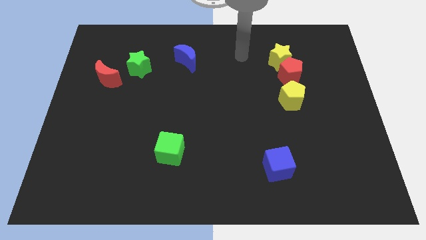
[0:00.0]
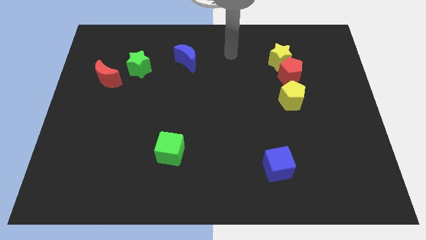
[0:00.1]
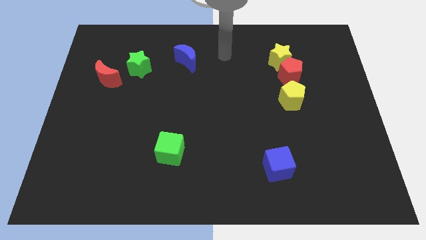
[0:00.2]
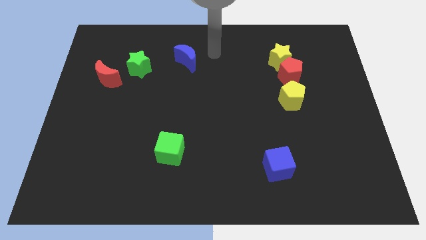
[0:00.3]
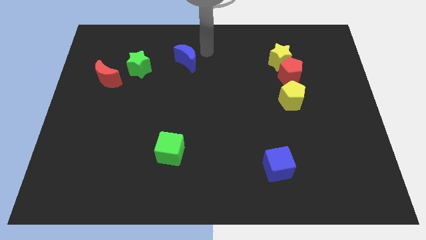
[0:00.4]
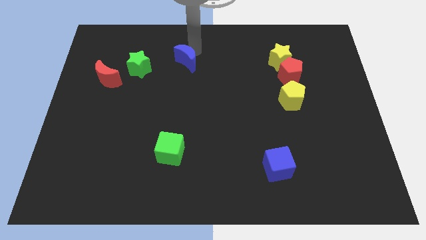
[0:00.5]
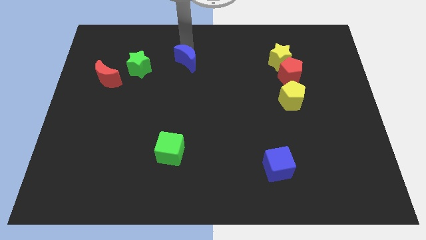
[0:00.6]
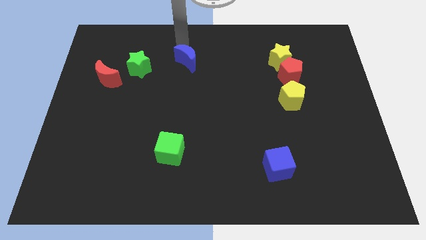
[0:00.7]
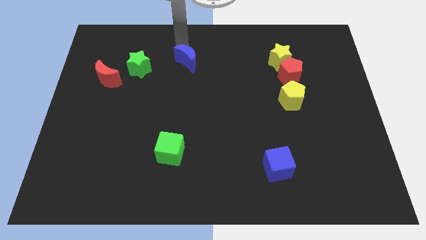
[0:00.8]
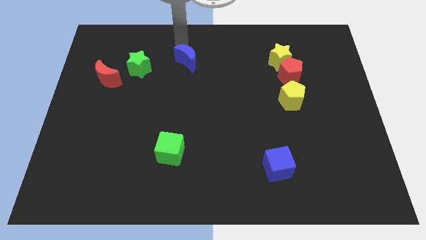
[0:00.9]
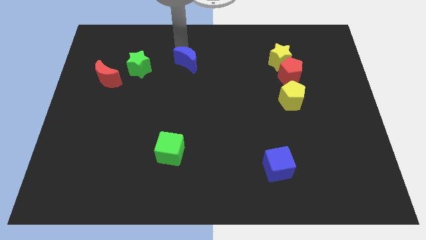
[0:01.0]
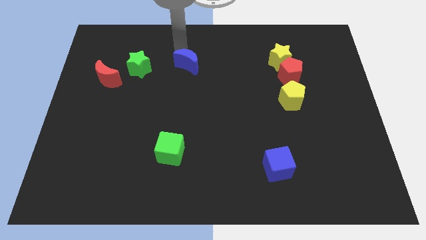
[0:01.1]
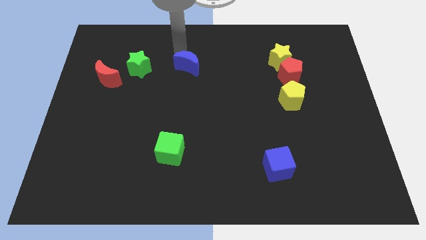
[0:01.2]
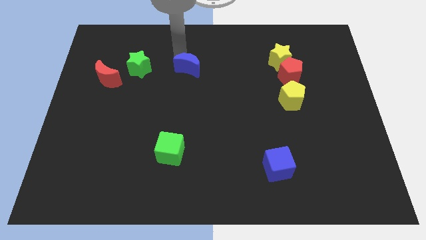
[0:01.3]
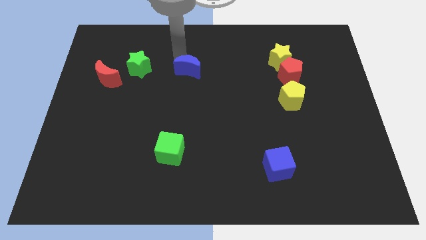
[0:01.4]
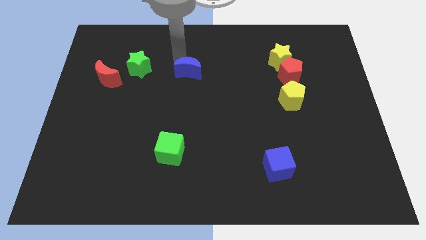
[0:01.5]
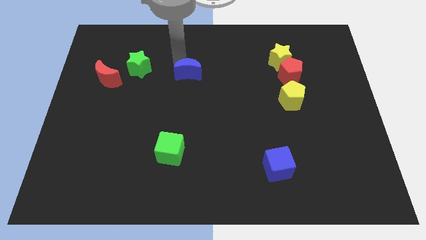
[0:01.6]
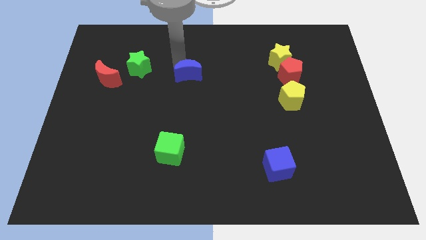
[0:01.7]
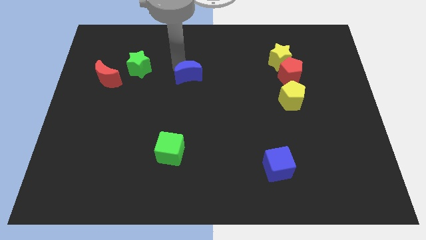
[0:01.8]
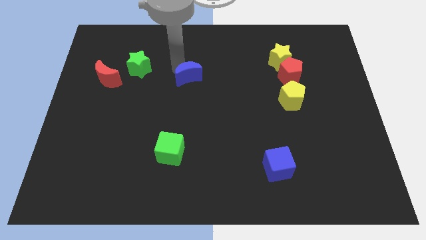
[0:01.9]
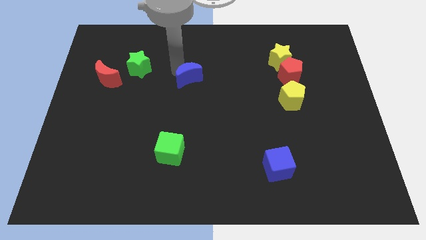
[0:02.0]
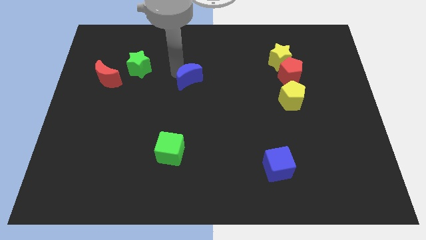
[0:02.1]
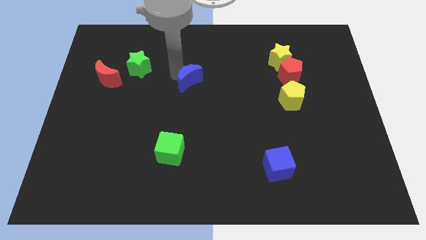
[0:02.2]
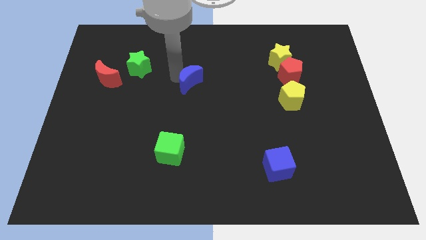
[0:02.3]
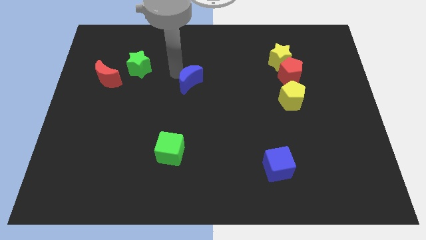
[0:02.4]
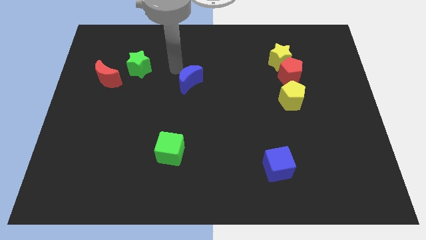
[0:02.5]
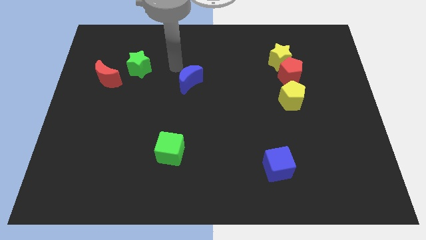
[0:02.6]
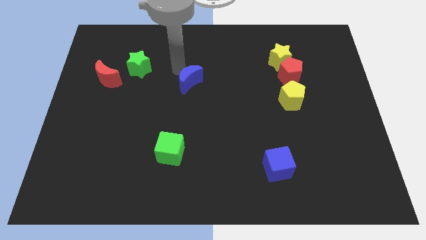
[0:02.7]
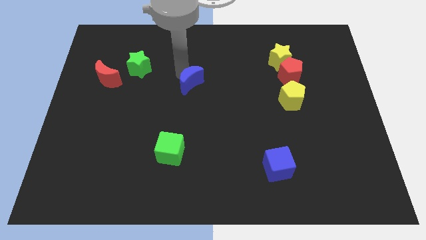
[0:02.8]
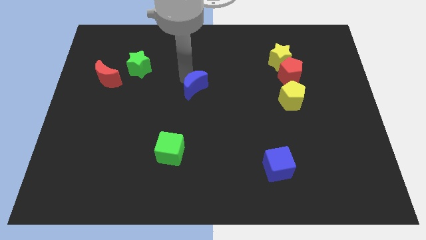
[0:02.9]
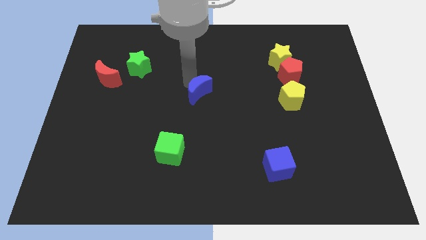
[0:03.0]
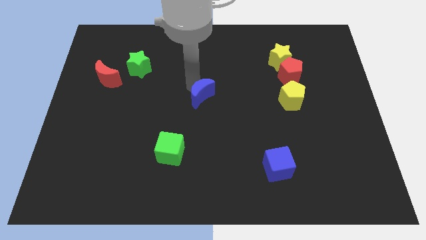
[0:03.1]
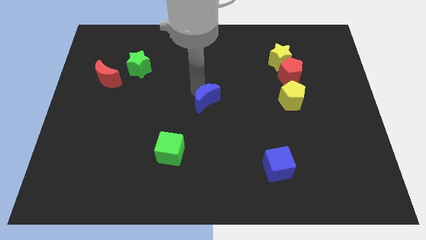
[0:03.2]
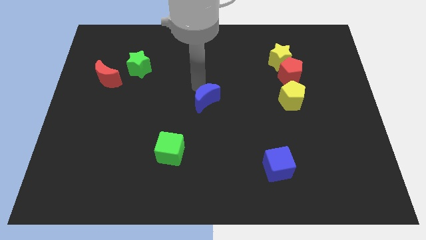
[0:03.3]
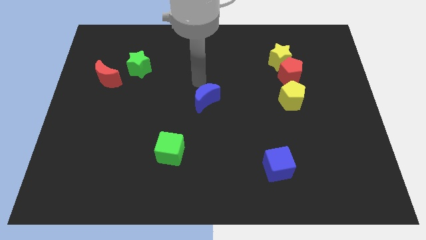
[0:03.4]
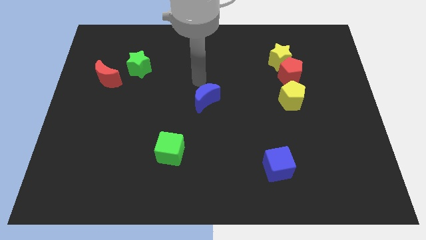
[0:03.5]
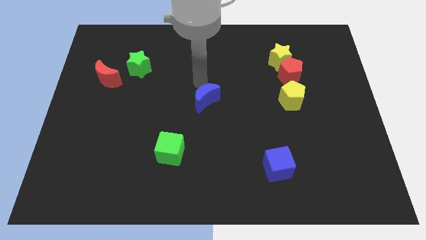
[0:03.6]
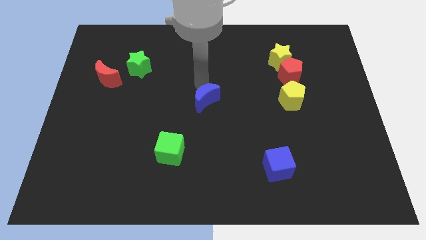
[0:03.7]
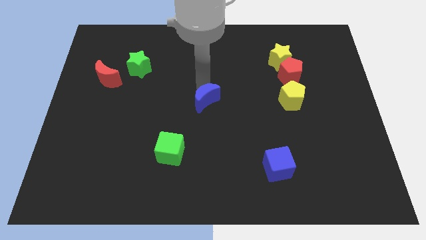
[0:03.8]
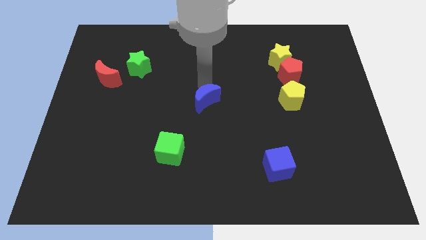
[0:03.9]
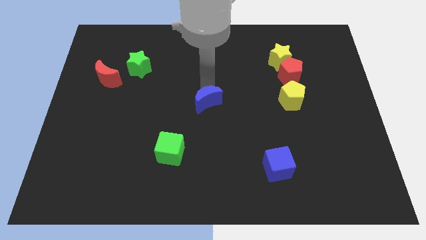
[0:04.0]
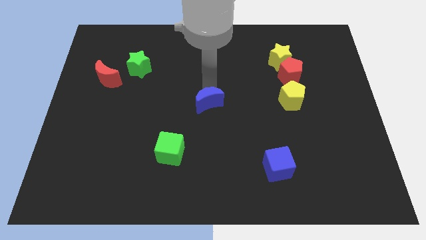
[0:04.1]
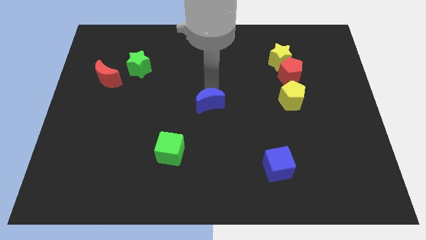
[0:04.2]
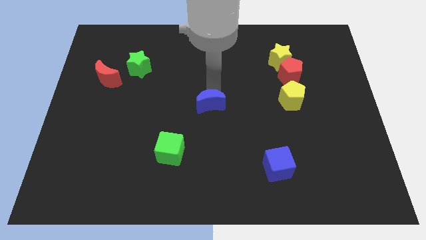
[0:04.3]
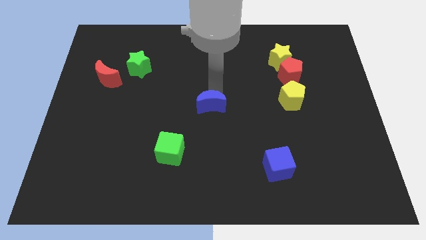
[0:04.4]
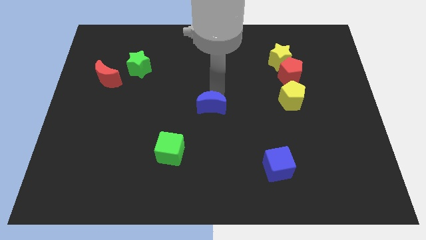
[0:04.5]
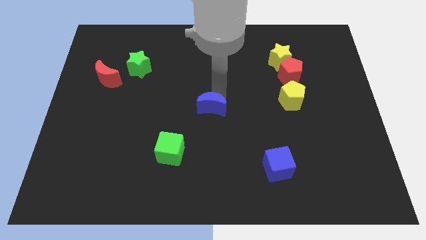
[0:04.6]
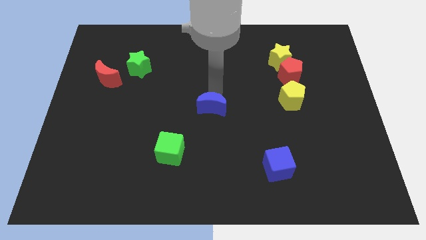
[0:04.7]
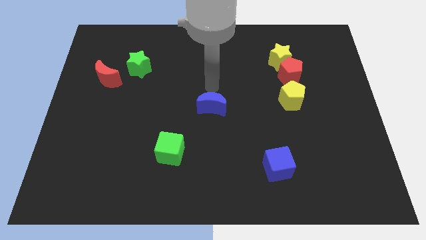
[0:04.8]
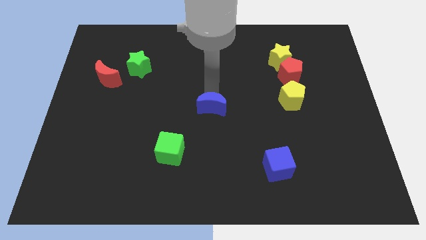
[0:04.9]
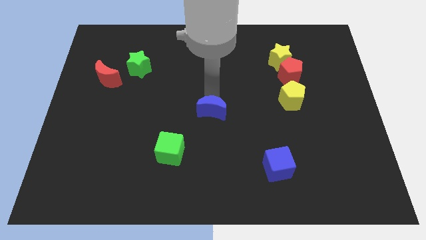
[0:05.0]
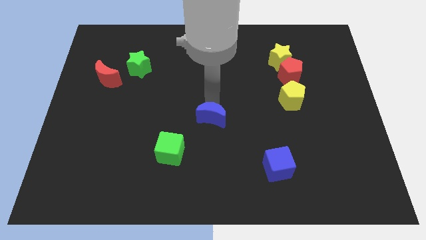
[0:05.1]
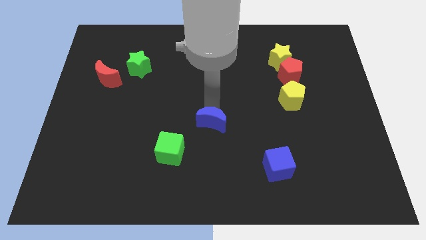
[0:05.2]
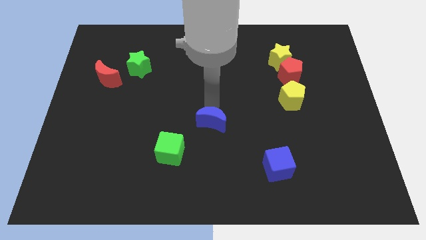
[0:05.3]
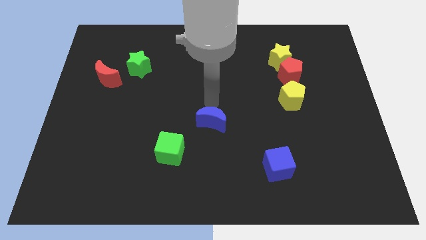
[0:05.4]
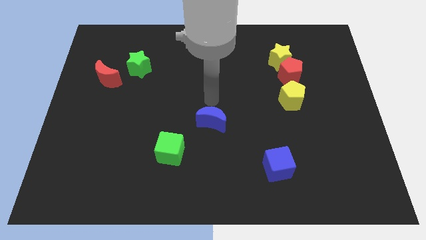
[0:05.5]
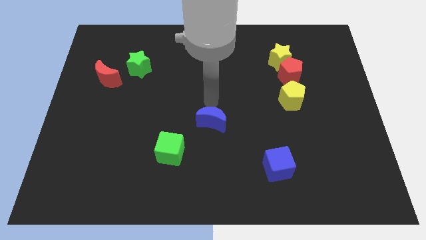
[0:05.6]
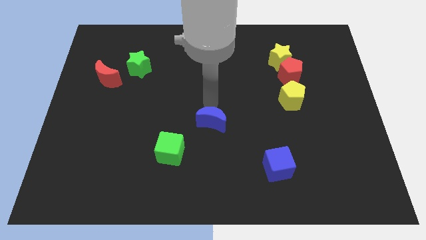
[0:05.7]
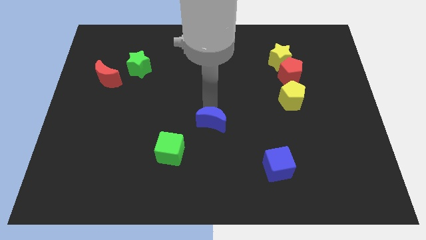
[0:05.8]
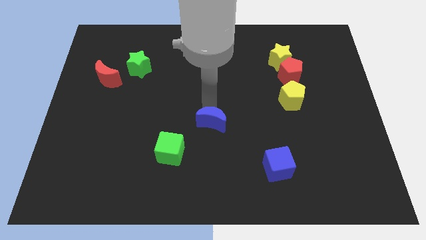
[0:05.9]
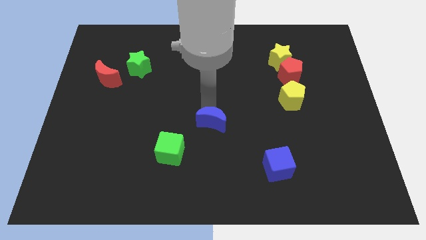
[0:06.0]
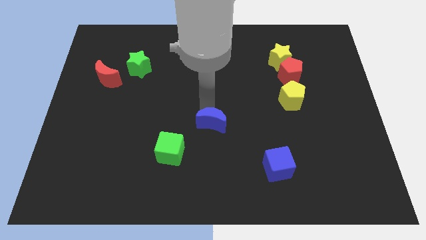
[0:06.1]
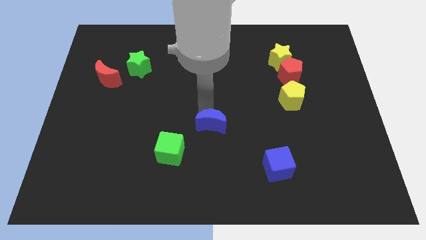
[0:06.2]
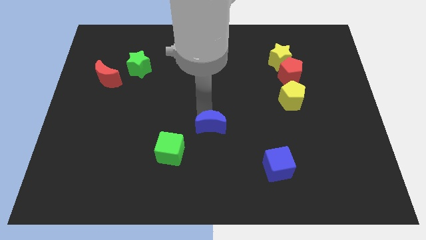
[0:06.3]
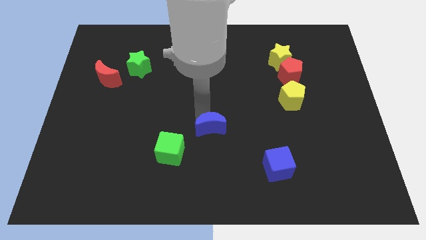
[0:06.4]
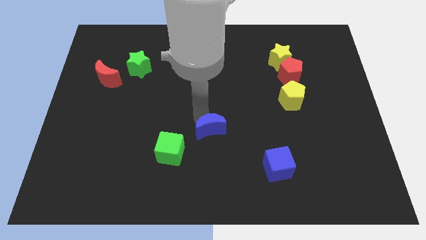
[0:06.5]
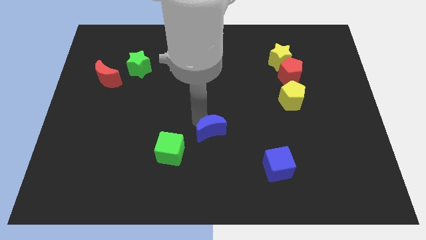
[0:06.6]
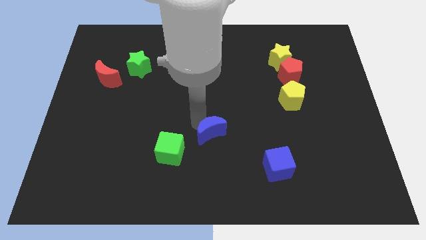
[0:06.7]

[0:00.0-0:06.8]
slide the blue moon right of the green cube

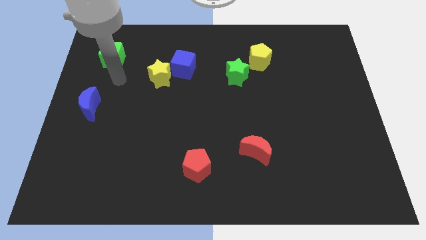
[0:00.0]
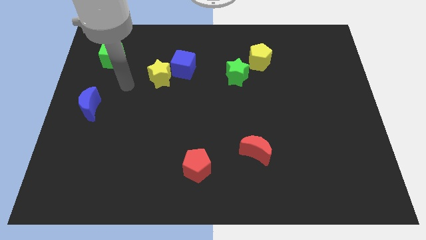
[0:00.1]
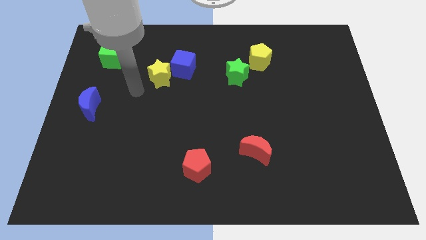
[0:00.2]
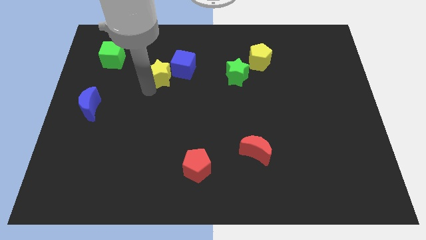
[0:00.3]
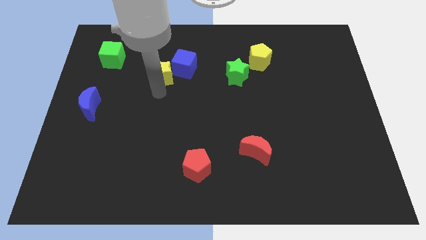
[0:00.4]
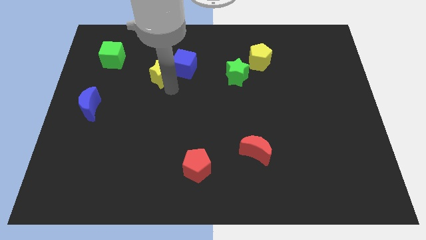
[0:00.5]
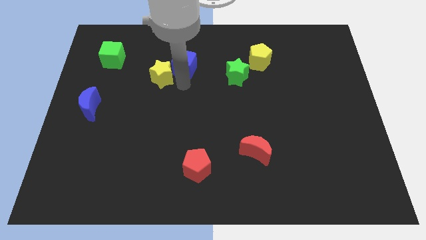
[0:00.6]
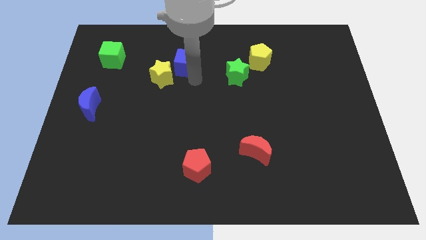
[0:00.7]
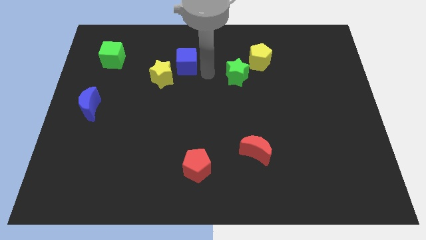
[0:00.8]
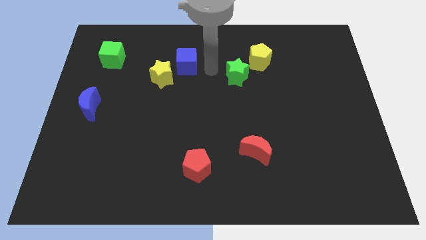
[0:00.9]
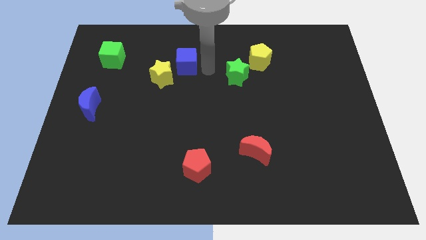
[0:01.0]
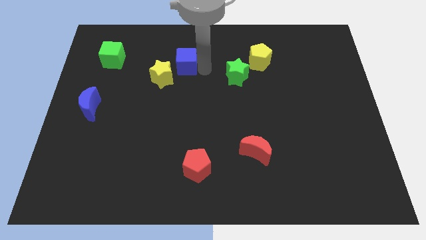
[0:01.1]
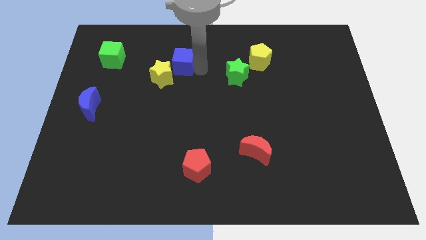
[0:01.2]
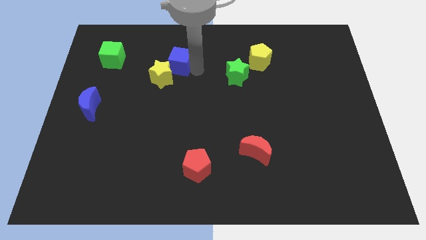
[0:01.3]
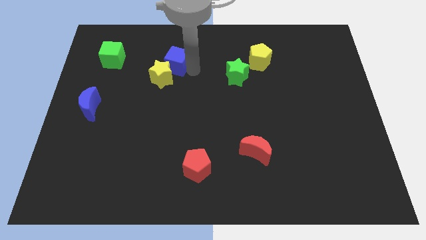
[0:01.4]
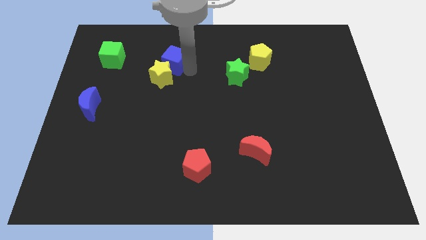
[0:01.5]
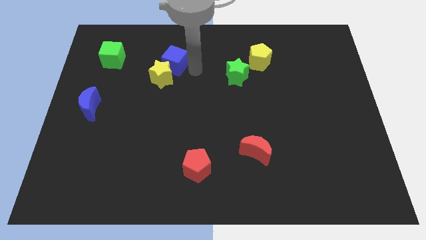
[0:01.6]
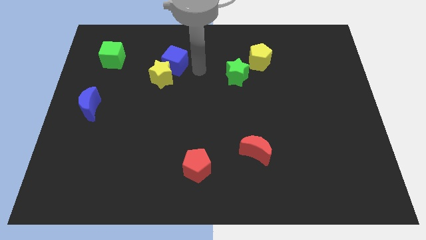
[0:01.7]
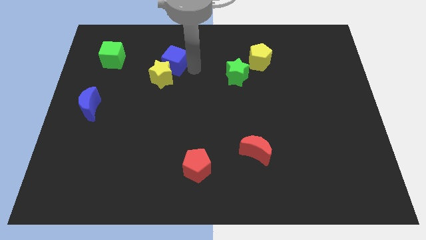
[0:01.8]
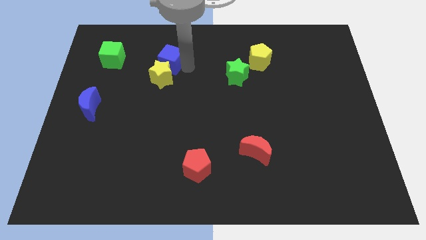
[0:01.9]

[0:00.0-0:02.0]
put the blue cube right of the green cube
